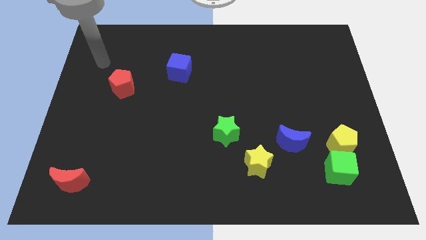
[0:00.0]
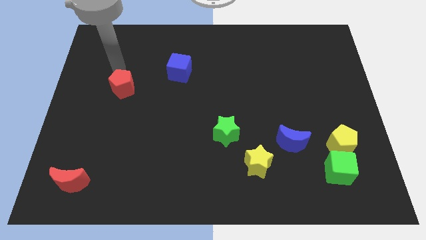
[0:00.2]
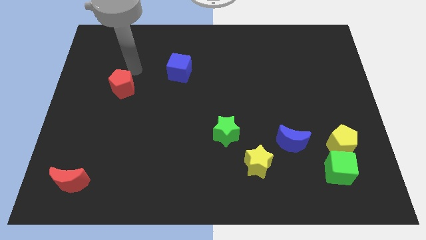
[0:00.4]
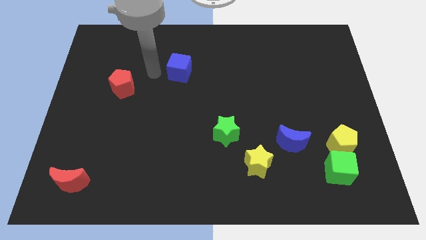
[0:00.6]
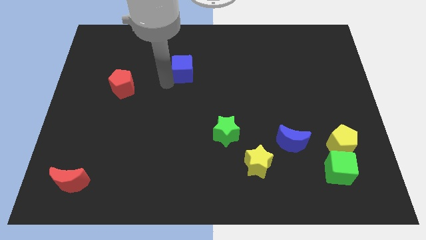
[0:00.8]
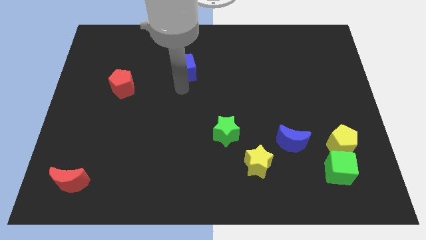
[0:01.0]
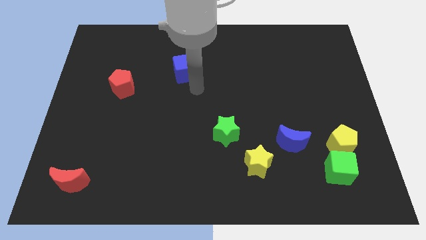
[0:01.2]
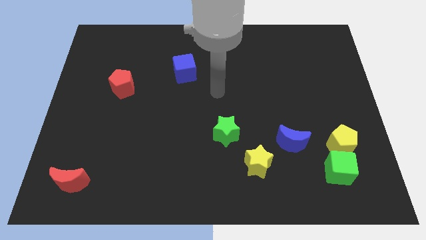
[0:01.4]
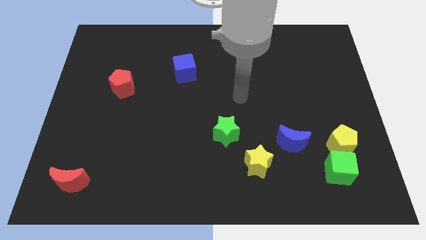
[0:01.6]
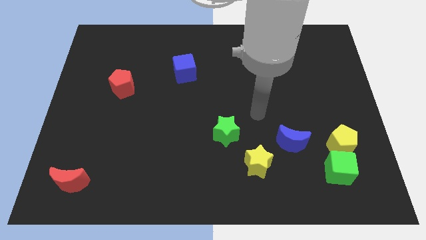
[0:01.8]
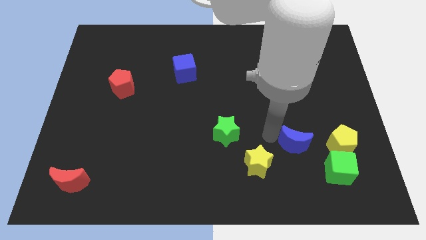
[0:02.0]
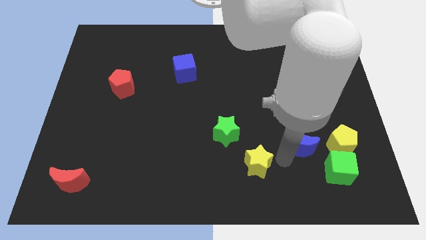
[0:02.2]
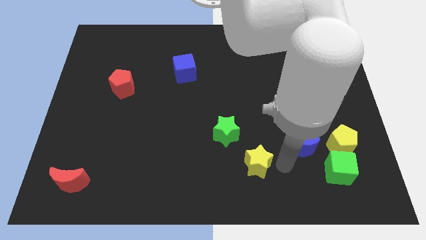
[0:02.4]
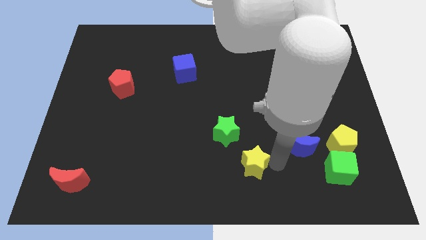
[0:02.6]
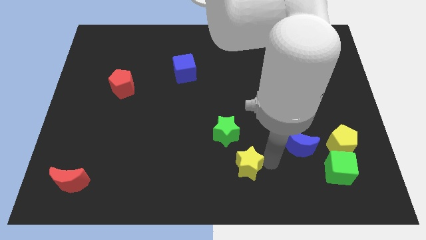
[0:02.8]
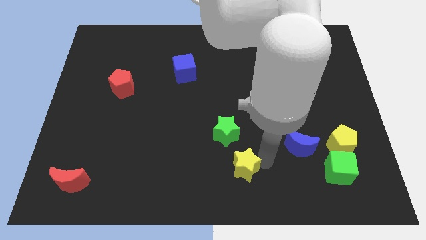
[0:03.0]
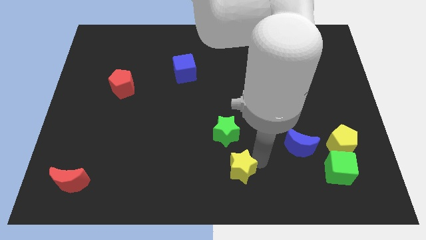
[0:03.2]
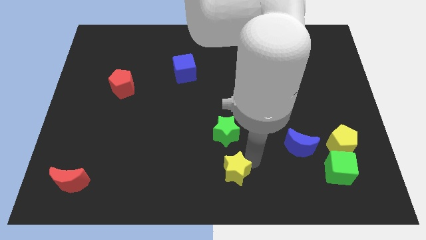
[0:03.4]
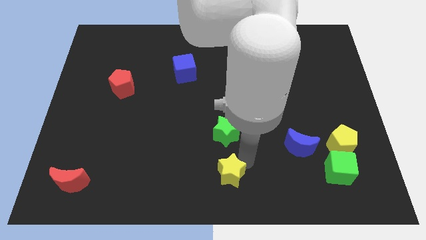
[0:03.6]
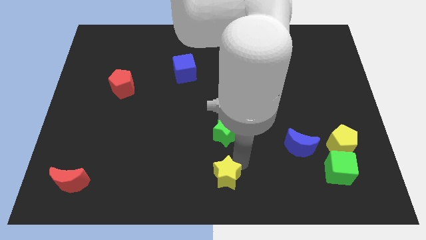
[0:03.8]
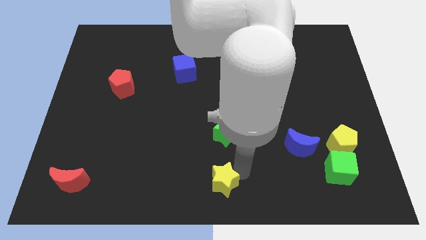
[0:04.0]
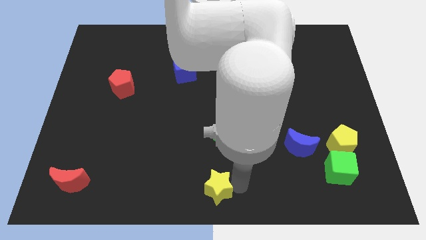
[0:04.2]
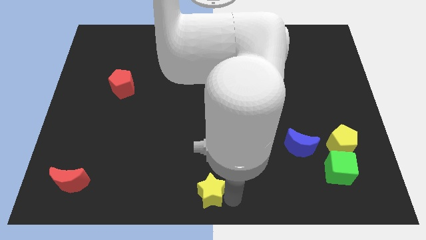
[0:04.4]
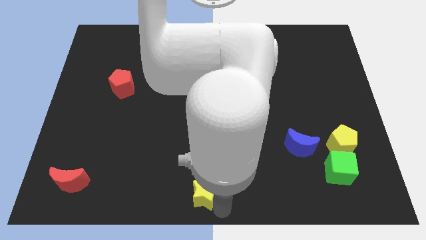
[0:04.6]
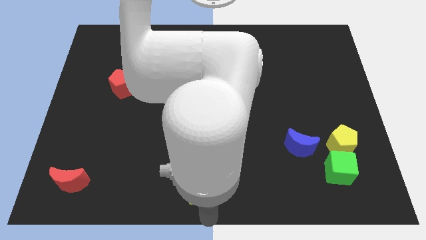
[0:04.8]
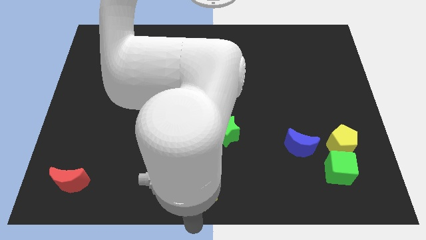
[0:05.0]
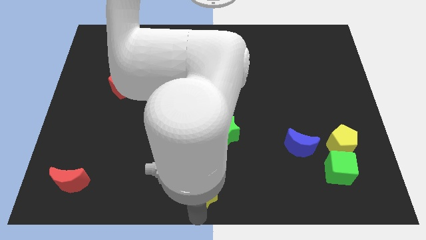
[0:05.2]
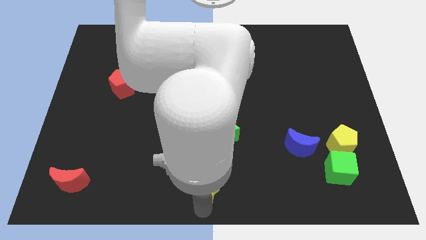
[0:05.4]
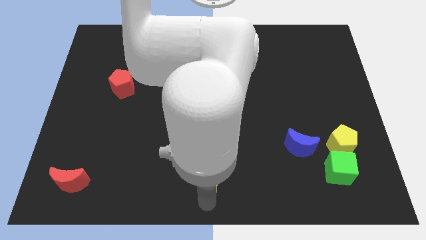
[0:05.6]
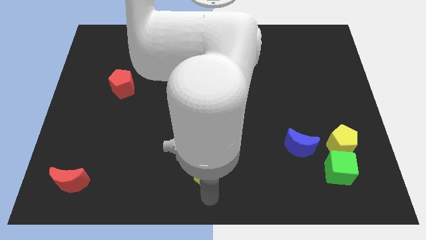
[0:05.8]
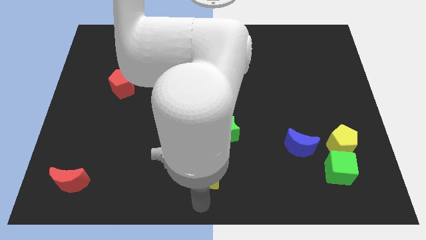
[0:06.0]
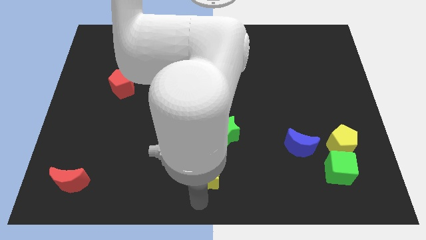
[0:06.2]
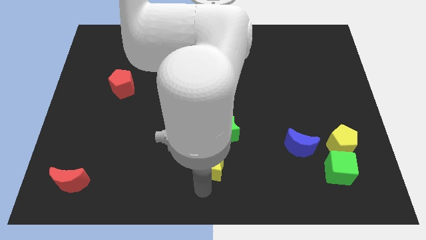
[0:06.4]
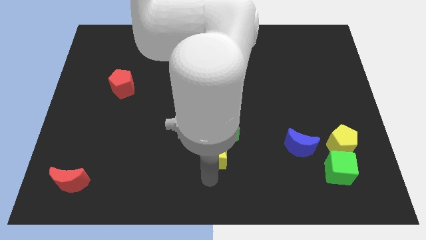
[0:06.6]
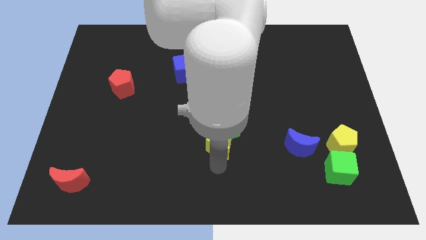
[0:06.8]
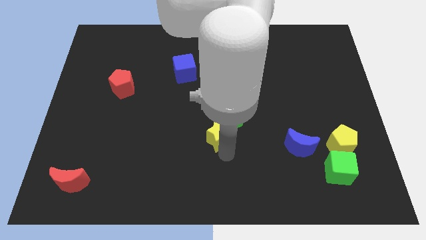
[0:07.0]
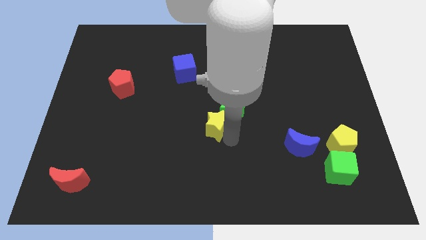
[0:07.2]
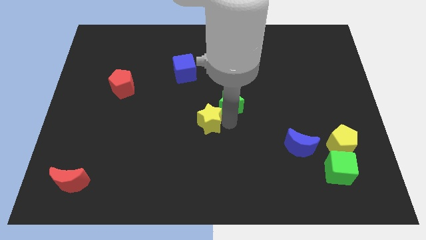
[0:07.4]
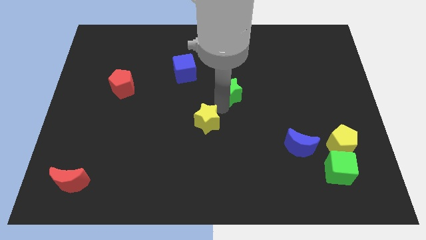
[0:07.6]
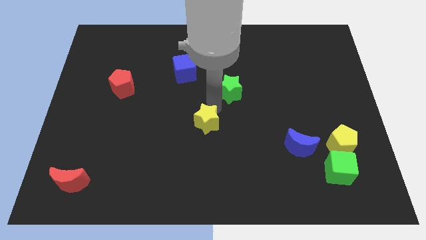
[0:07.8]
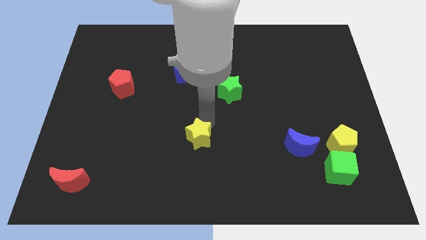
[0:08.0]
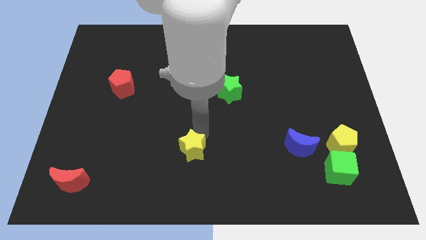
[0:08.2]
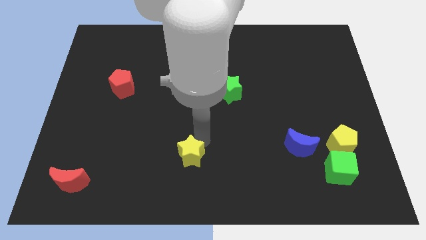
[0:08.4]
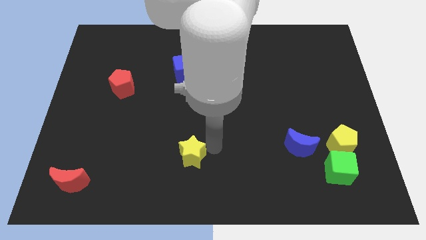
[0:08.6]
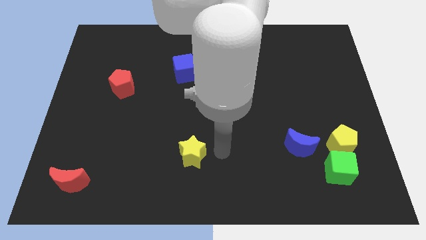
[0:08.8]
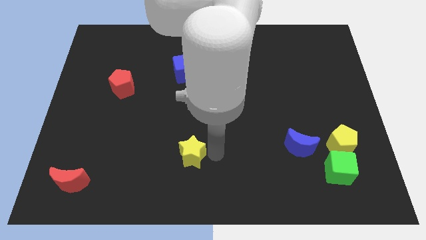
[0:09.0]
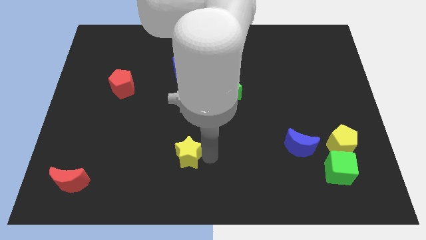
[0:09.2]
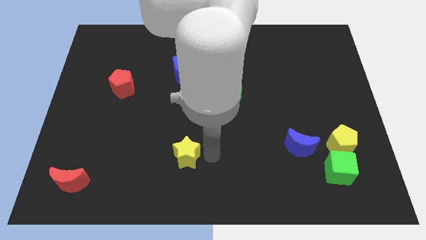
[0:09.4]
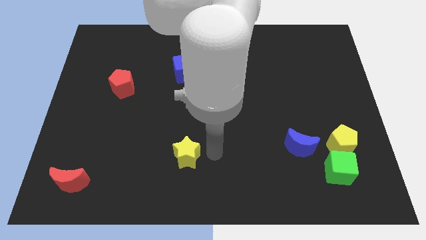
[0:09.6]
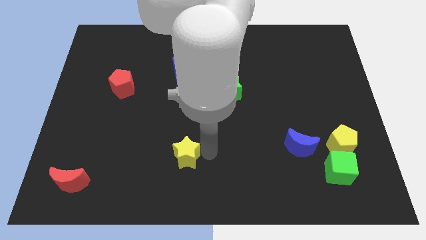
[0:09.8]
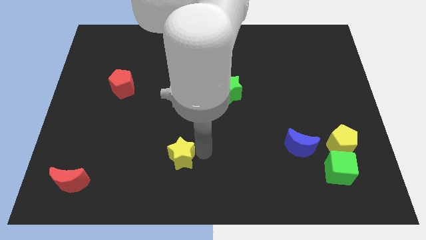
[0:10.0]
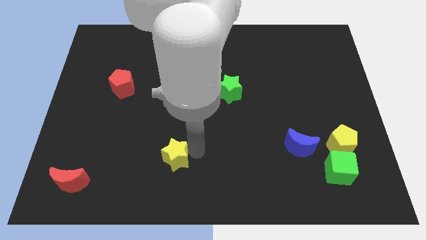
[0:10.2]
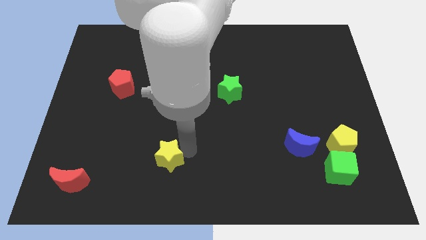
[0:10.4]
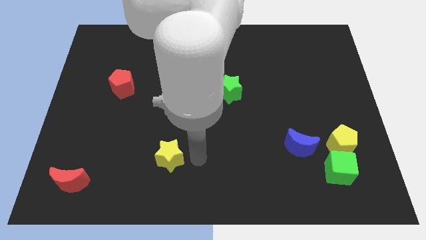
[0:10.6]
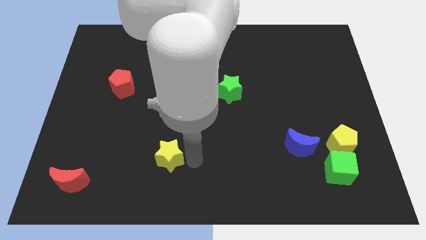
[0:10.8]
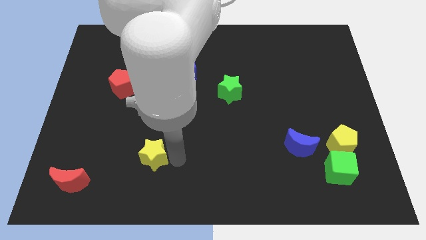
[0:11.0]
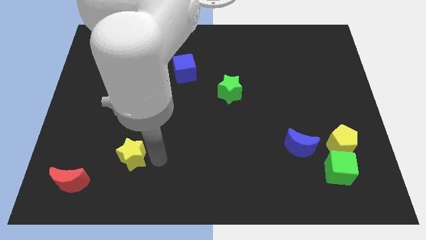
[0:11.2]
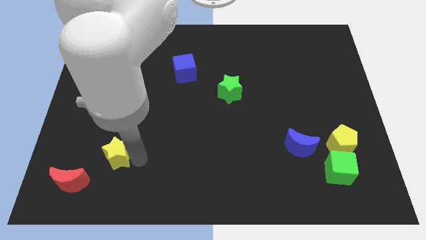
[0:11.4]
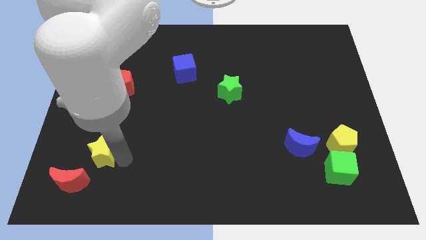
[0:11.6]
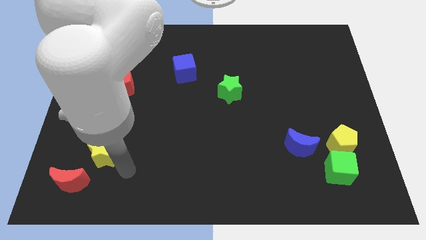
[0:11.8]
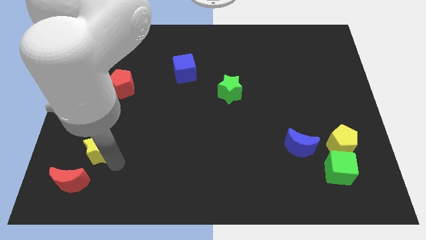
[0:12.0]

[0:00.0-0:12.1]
slide the yellow star above the red moon

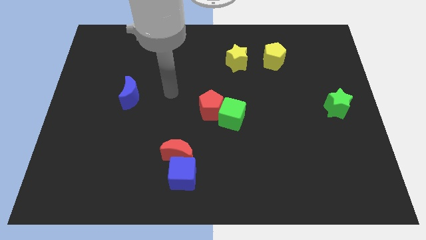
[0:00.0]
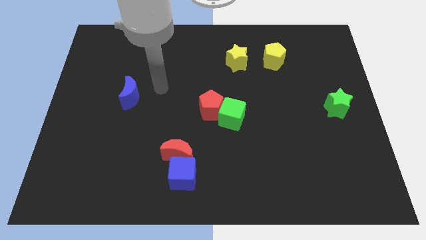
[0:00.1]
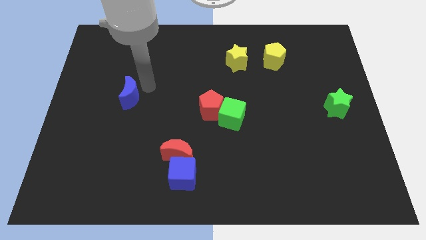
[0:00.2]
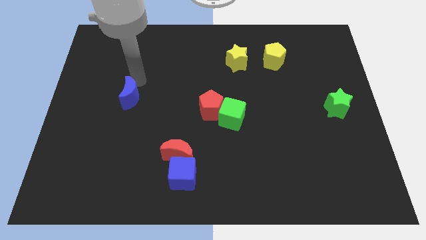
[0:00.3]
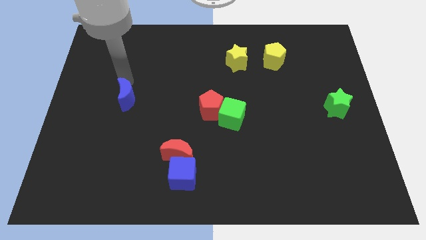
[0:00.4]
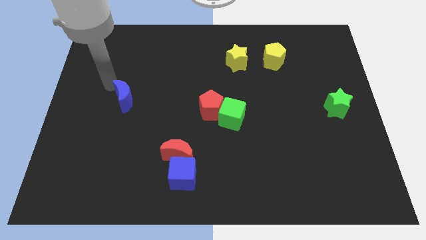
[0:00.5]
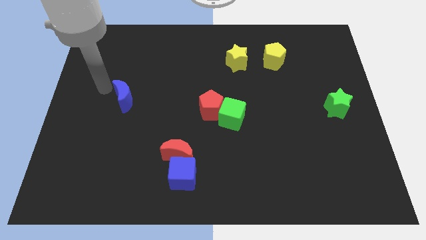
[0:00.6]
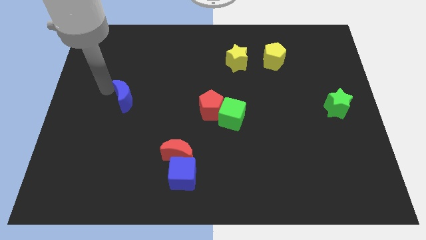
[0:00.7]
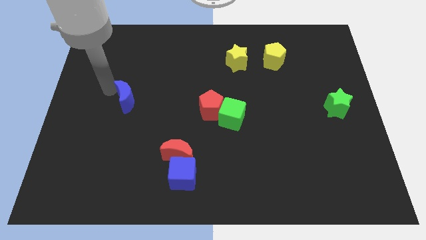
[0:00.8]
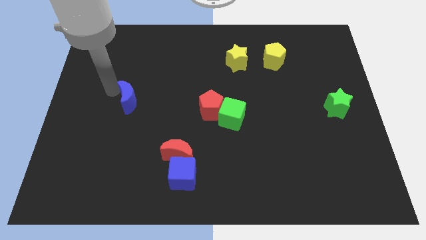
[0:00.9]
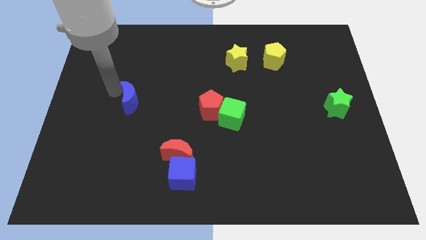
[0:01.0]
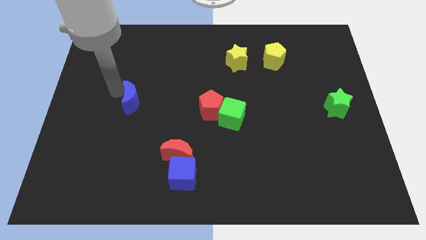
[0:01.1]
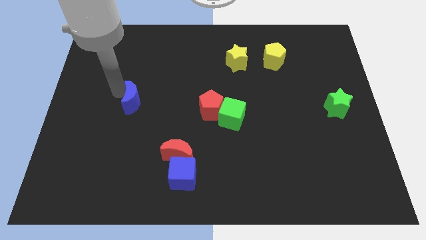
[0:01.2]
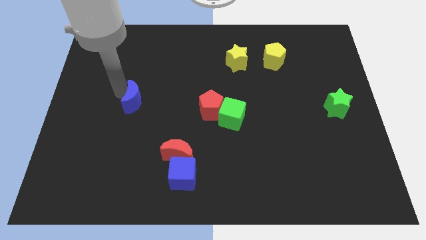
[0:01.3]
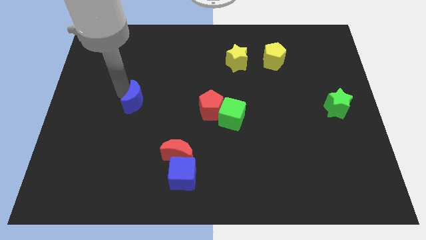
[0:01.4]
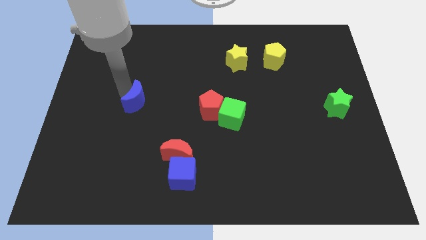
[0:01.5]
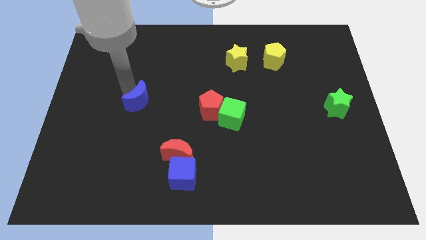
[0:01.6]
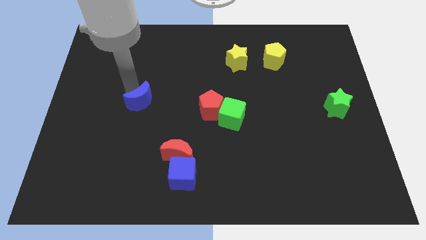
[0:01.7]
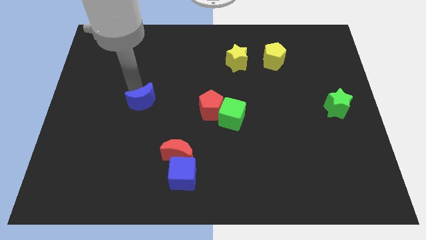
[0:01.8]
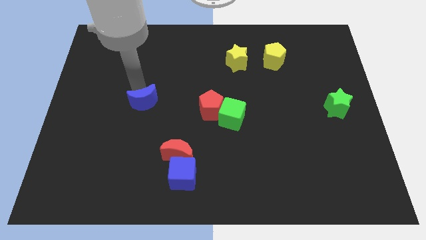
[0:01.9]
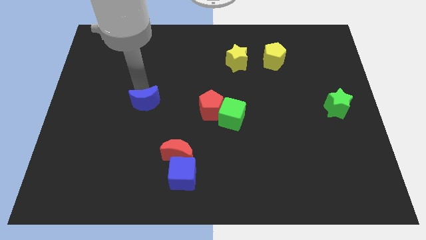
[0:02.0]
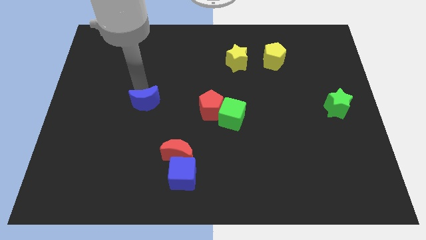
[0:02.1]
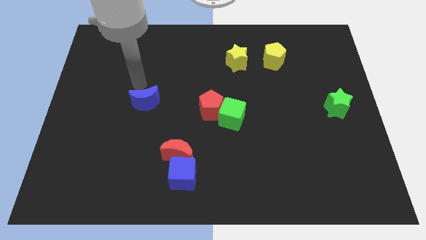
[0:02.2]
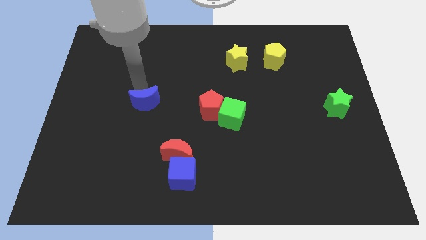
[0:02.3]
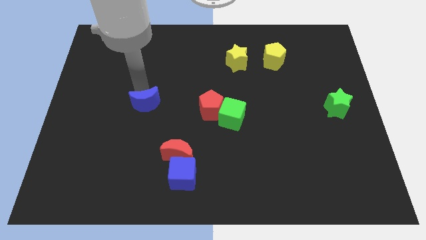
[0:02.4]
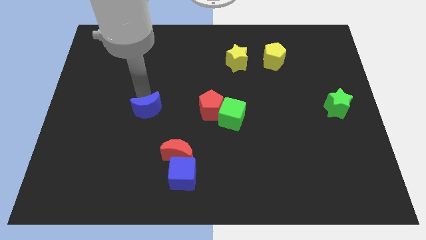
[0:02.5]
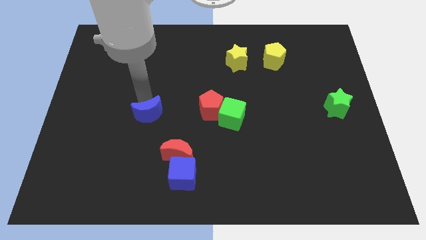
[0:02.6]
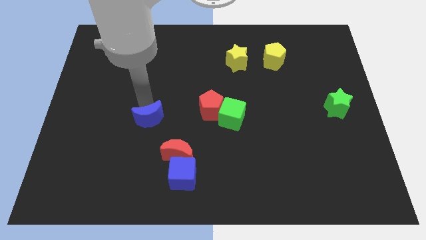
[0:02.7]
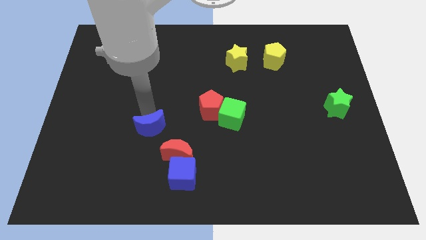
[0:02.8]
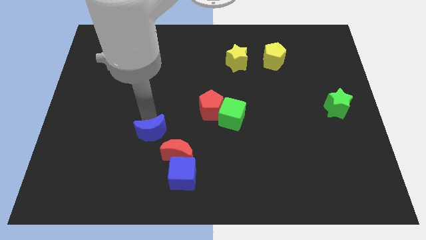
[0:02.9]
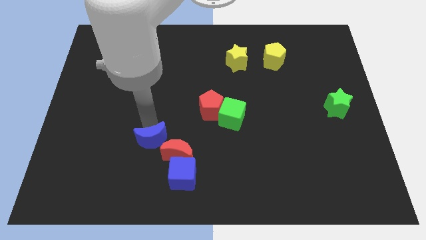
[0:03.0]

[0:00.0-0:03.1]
push the blue moon to the top left side of the blue cube
